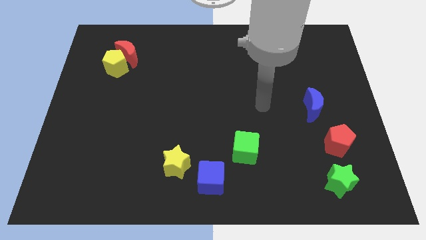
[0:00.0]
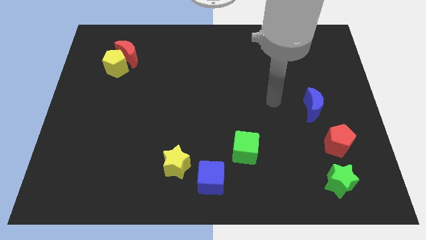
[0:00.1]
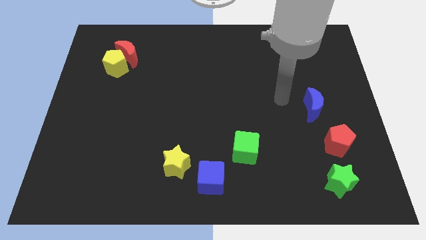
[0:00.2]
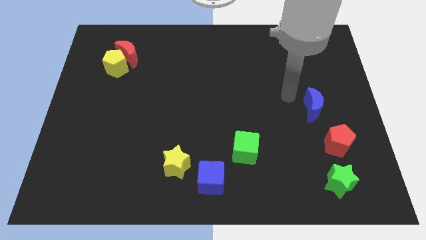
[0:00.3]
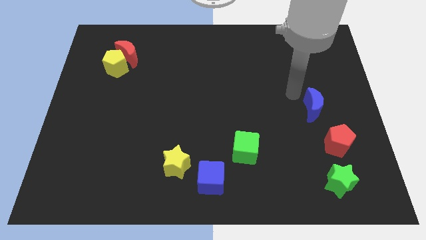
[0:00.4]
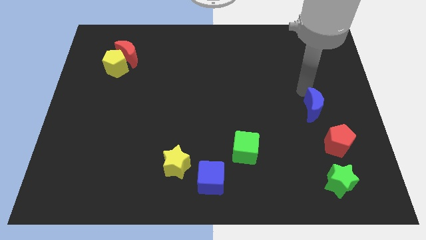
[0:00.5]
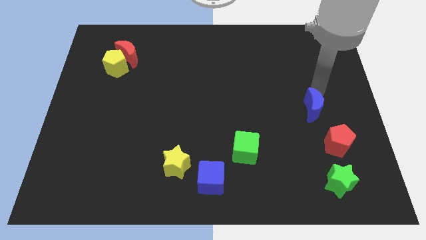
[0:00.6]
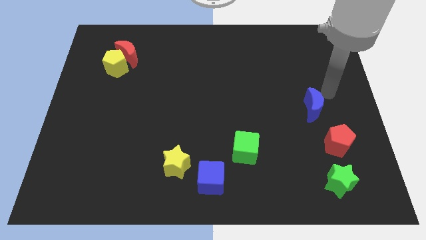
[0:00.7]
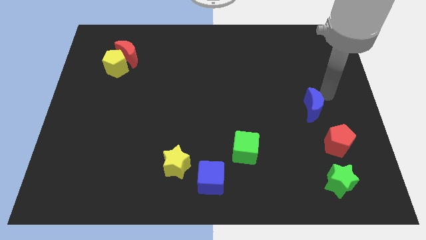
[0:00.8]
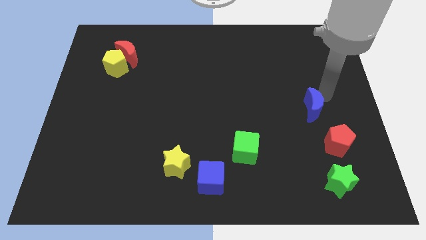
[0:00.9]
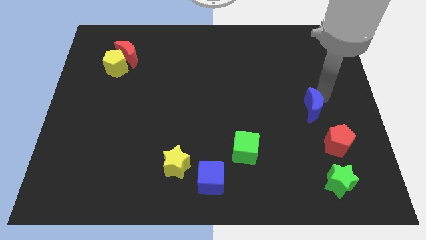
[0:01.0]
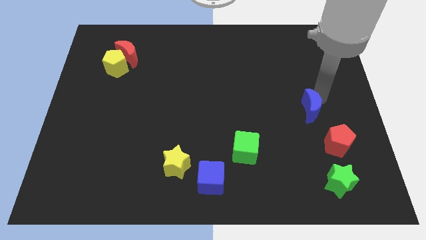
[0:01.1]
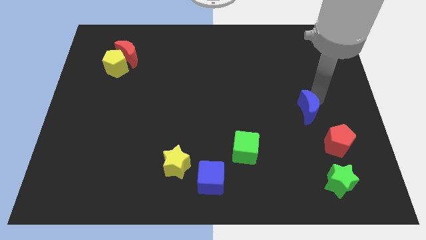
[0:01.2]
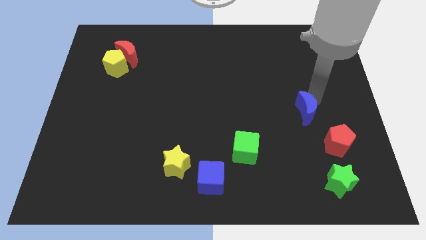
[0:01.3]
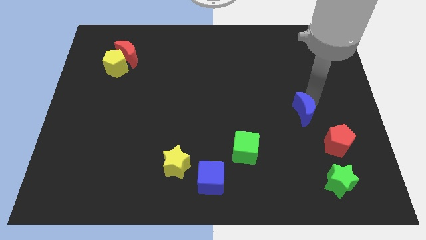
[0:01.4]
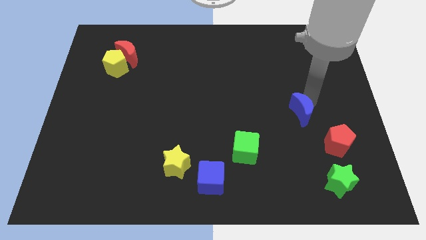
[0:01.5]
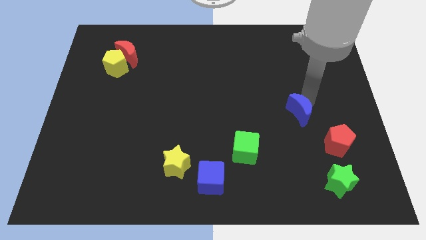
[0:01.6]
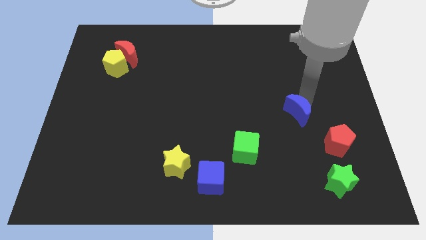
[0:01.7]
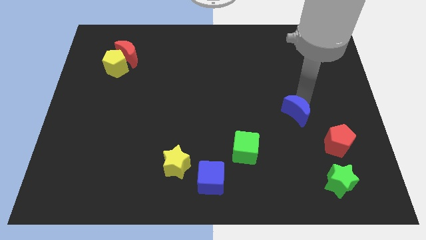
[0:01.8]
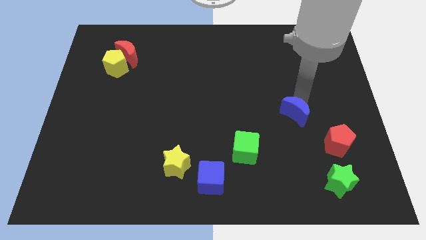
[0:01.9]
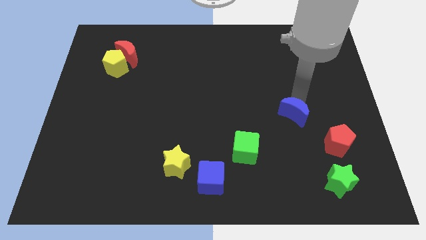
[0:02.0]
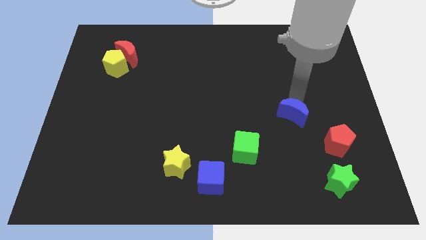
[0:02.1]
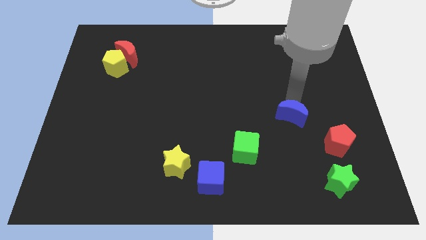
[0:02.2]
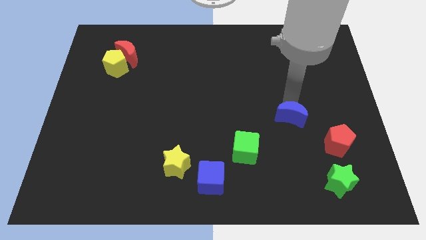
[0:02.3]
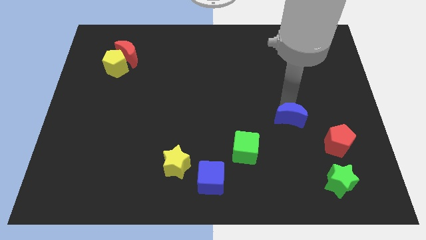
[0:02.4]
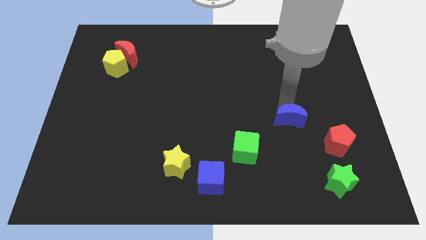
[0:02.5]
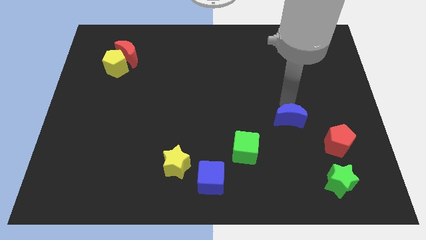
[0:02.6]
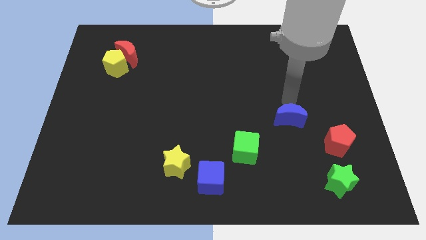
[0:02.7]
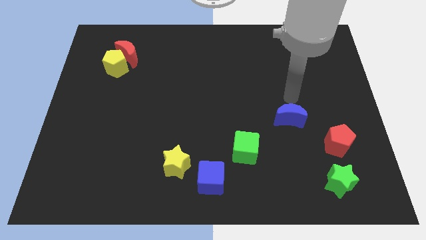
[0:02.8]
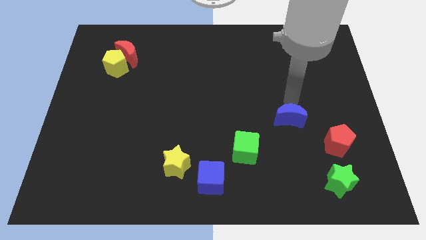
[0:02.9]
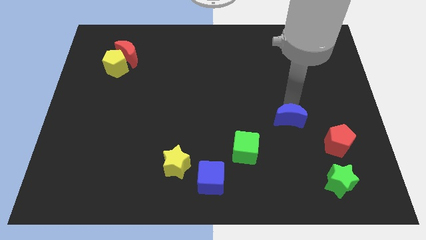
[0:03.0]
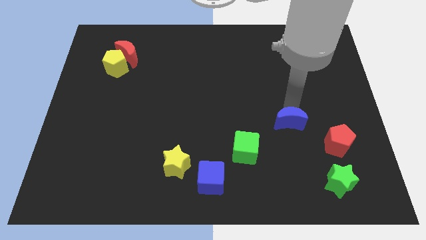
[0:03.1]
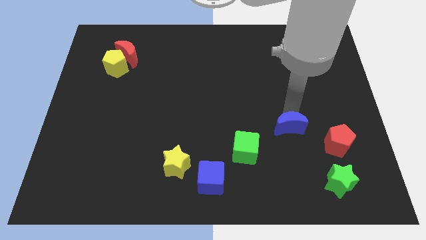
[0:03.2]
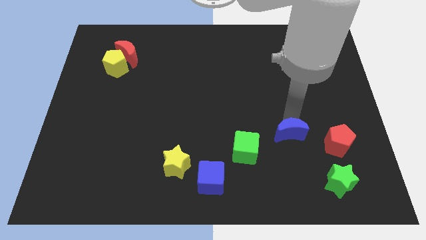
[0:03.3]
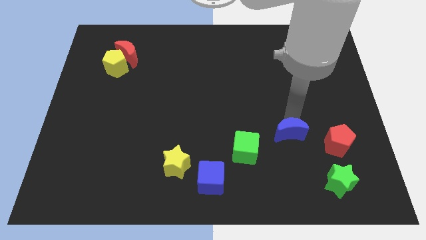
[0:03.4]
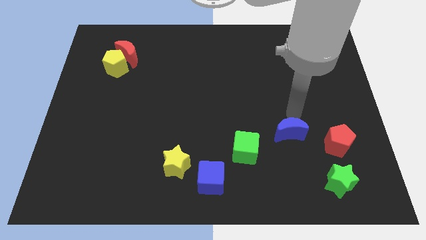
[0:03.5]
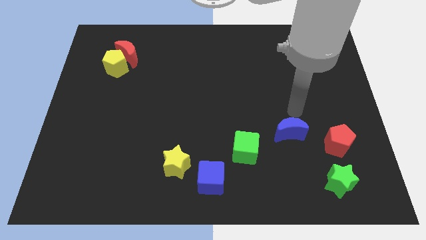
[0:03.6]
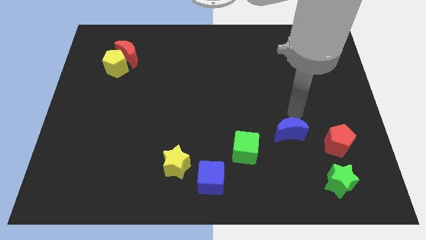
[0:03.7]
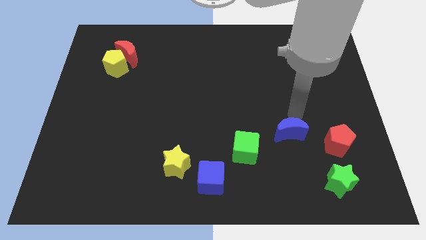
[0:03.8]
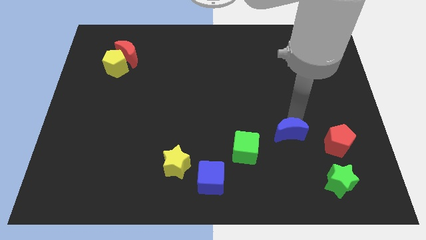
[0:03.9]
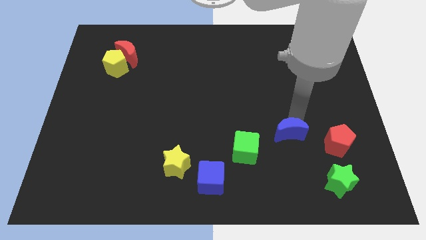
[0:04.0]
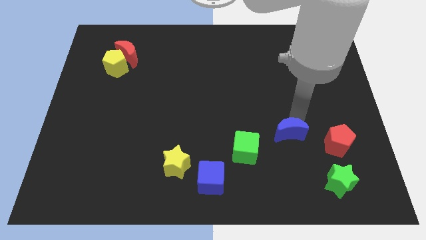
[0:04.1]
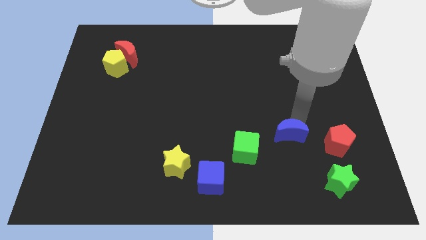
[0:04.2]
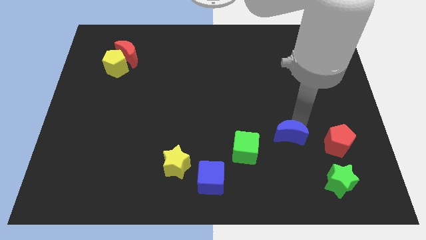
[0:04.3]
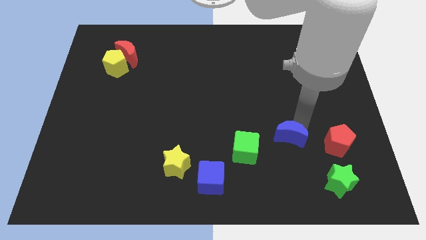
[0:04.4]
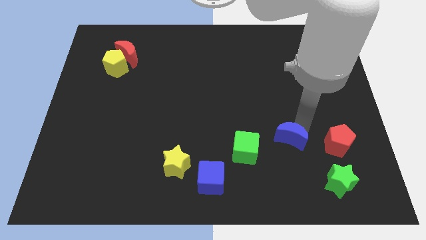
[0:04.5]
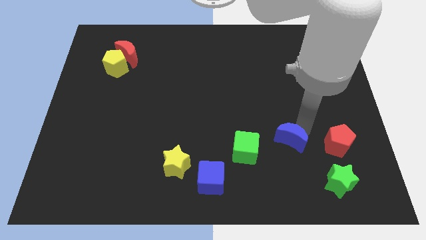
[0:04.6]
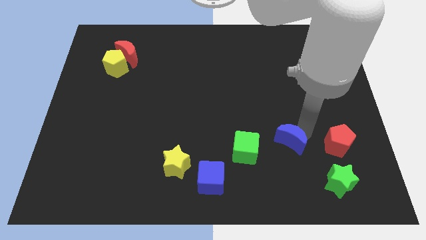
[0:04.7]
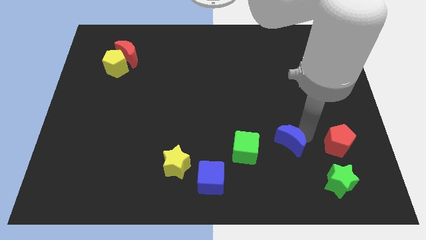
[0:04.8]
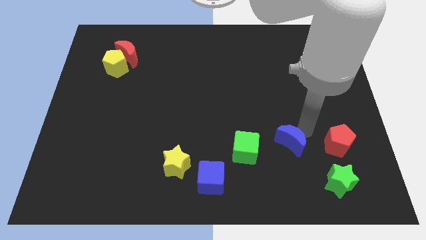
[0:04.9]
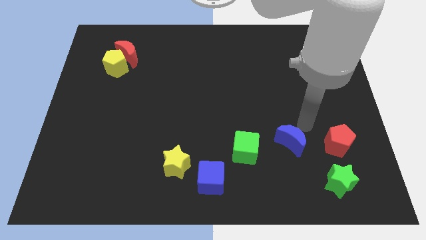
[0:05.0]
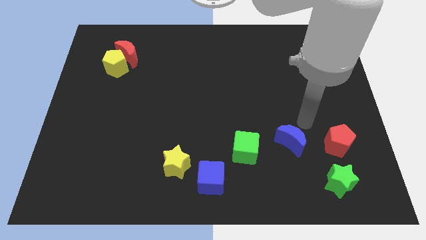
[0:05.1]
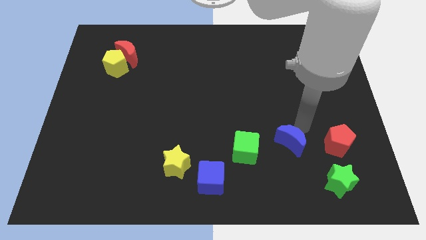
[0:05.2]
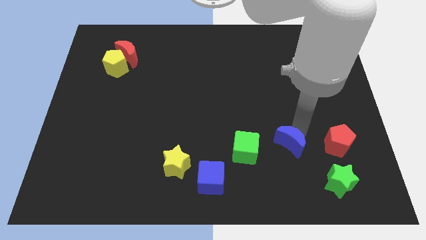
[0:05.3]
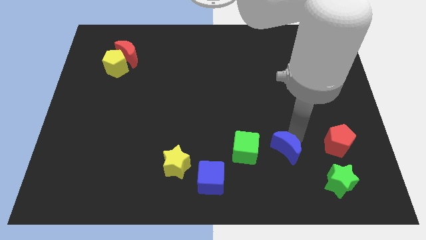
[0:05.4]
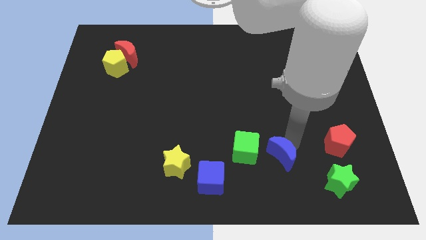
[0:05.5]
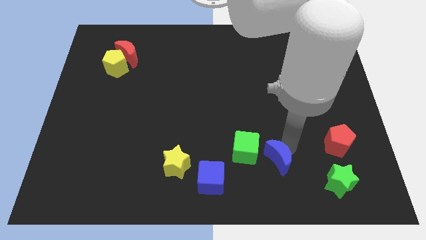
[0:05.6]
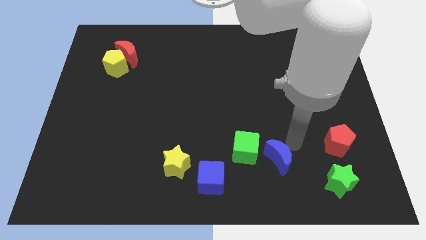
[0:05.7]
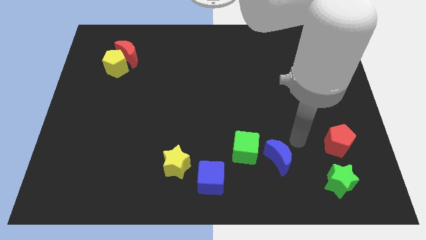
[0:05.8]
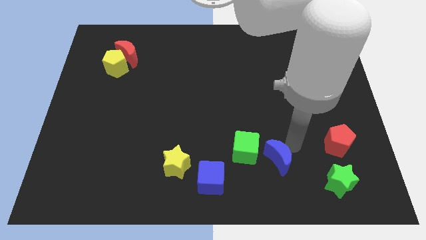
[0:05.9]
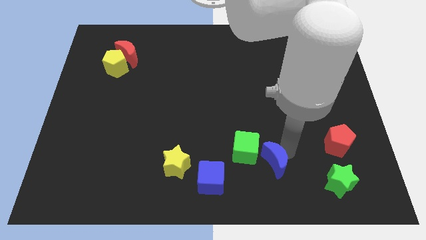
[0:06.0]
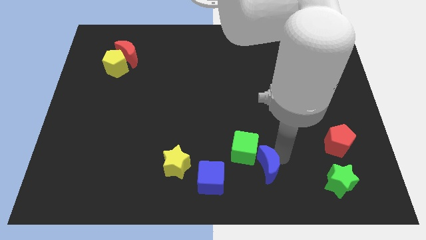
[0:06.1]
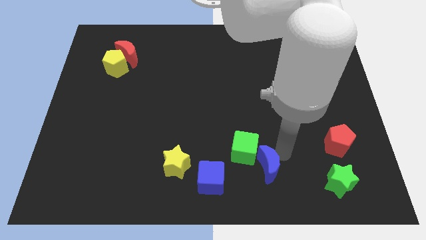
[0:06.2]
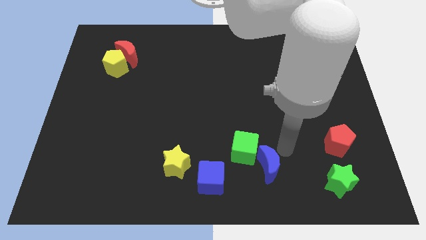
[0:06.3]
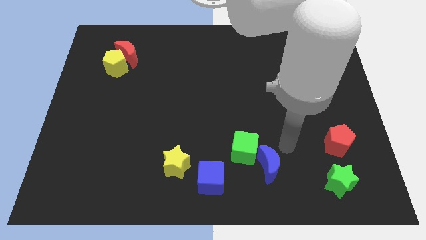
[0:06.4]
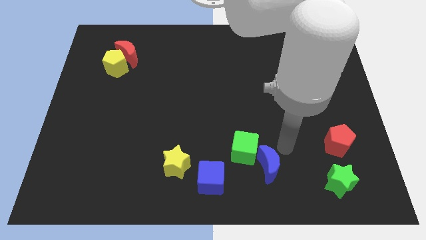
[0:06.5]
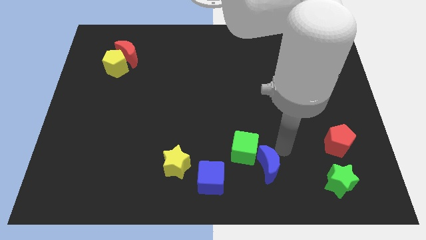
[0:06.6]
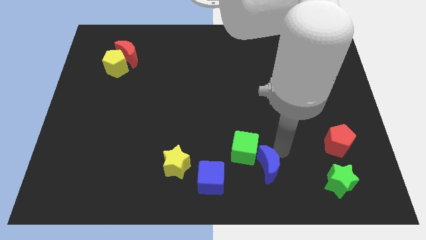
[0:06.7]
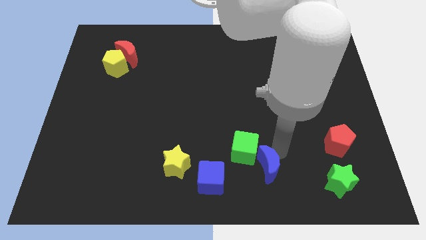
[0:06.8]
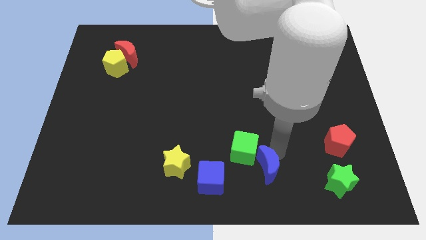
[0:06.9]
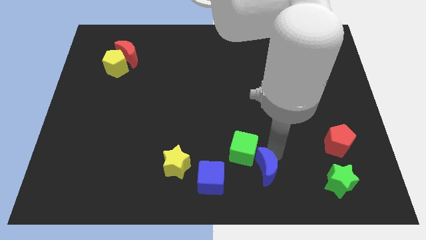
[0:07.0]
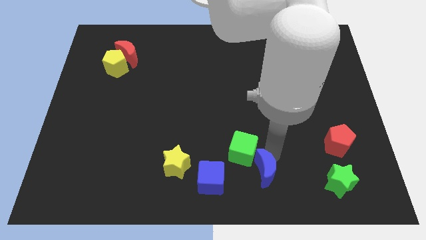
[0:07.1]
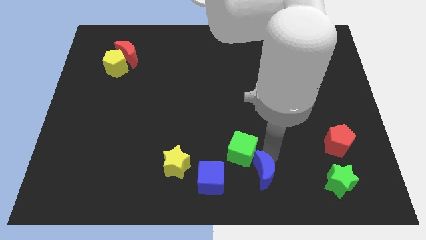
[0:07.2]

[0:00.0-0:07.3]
move the blue moon to the bottom
